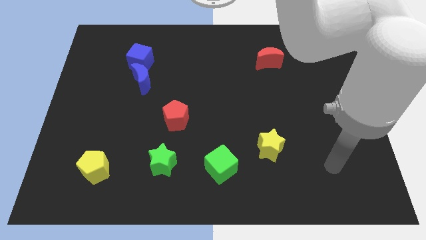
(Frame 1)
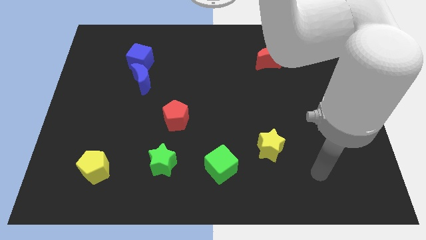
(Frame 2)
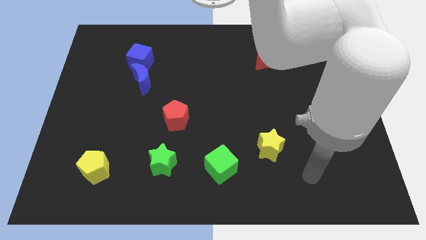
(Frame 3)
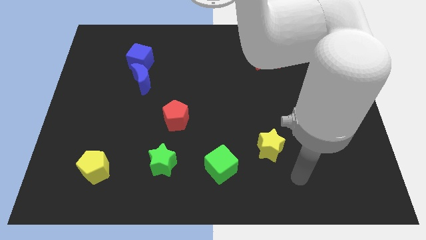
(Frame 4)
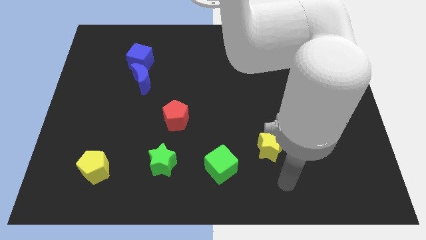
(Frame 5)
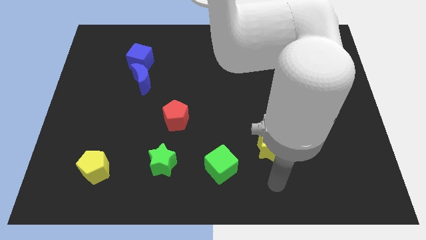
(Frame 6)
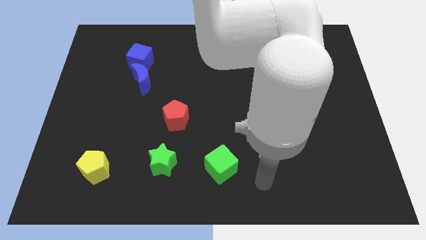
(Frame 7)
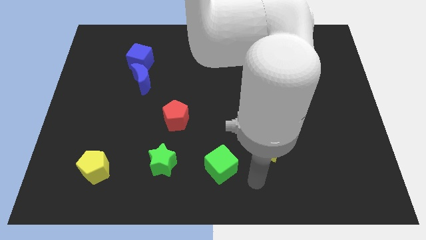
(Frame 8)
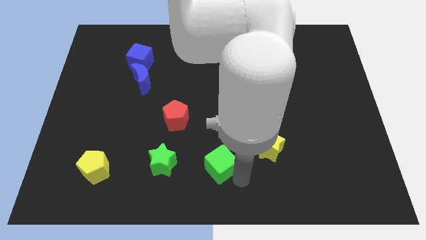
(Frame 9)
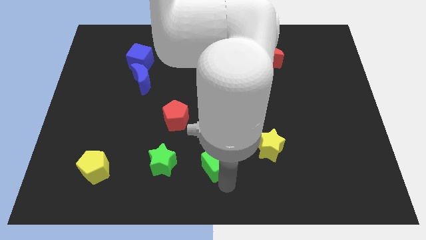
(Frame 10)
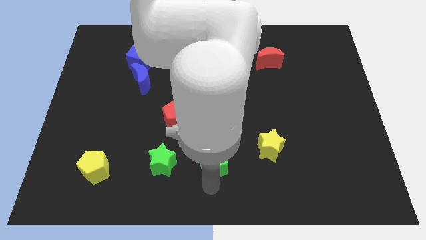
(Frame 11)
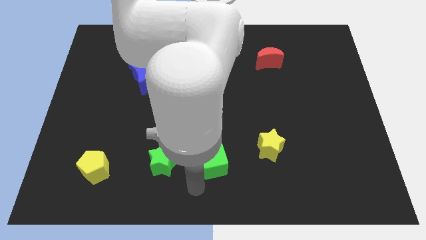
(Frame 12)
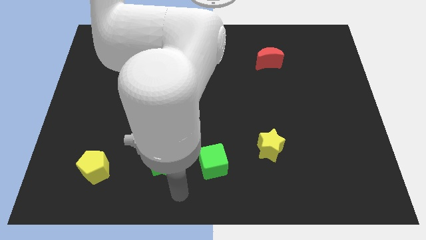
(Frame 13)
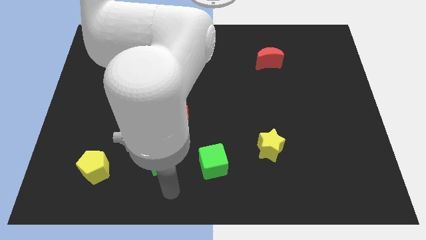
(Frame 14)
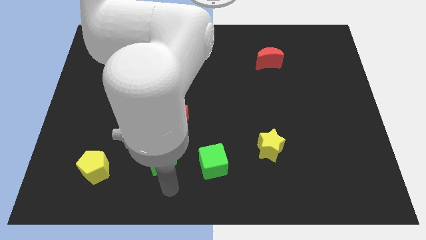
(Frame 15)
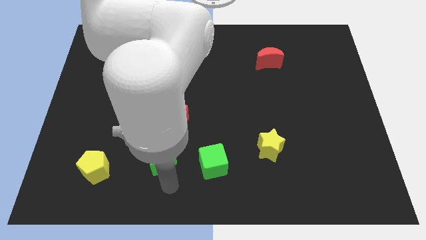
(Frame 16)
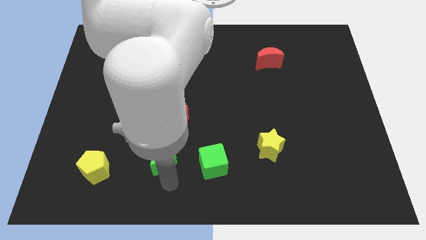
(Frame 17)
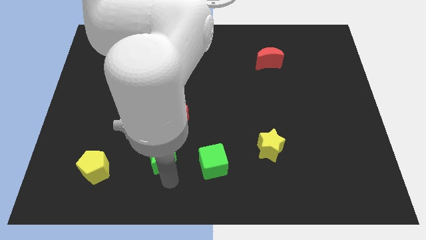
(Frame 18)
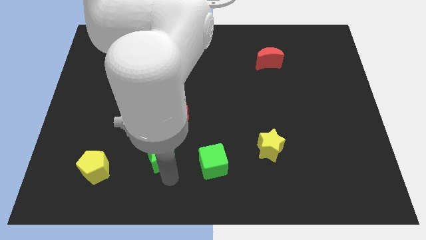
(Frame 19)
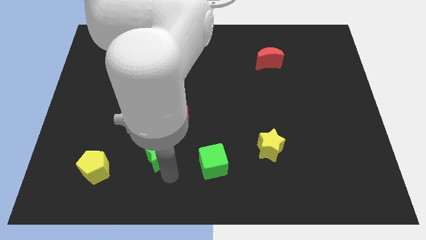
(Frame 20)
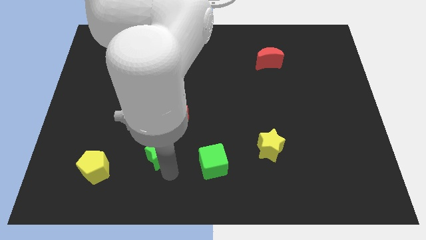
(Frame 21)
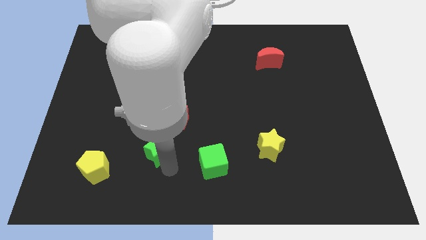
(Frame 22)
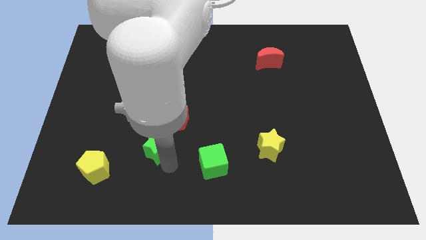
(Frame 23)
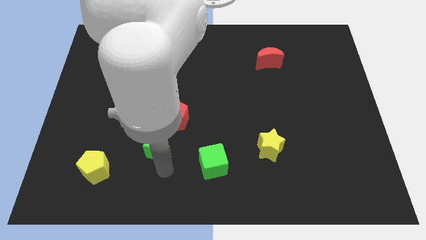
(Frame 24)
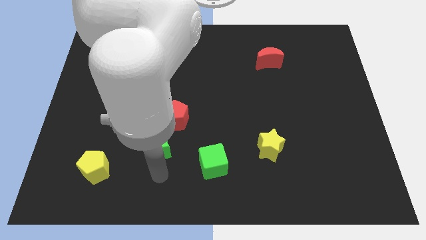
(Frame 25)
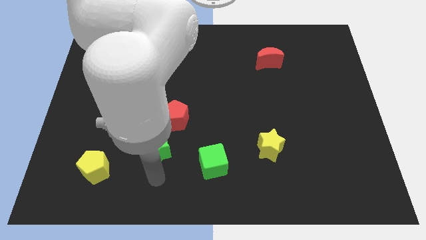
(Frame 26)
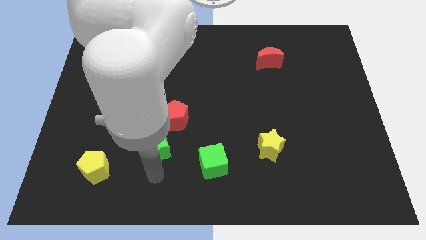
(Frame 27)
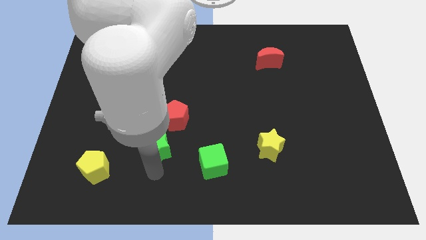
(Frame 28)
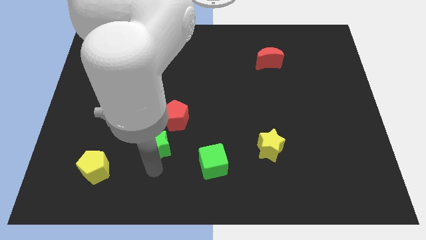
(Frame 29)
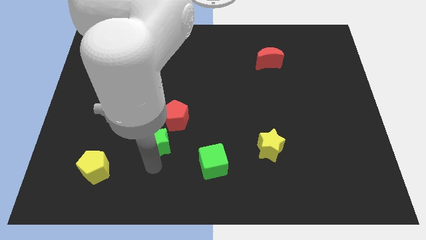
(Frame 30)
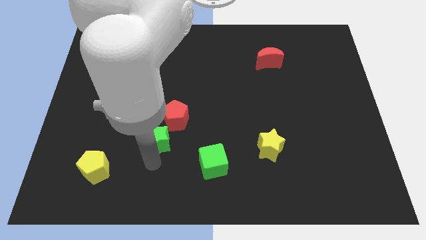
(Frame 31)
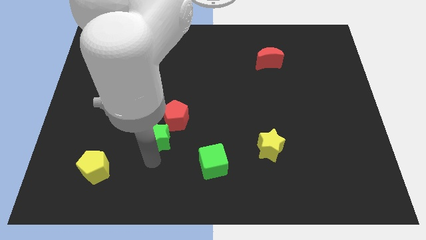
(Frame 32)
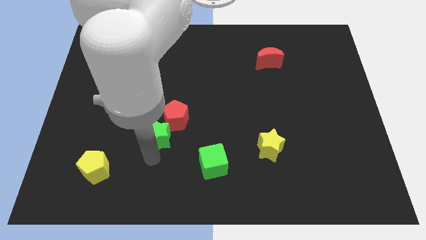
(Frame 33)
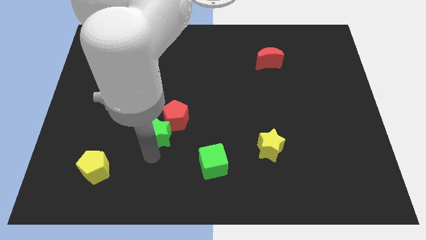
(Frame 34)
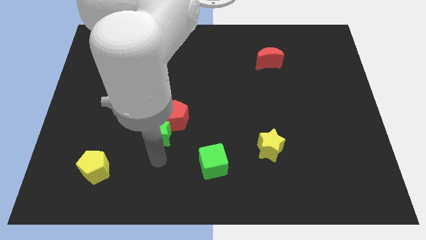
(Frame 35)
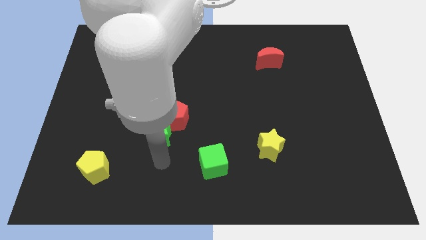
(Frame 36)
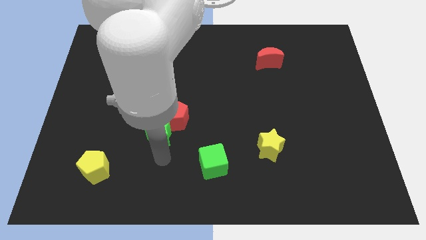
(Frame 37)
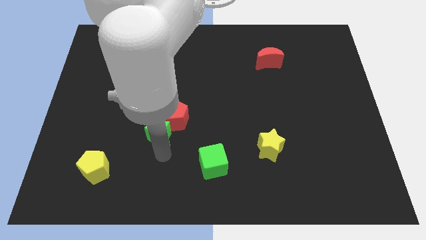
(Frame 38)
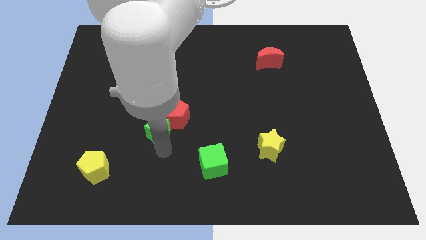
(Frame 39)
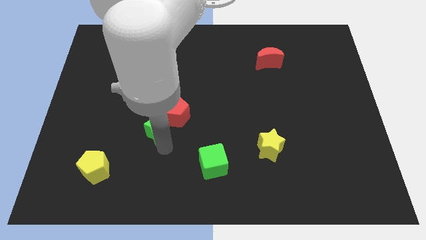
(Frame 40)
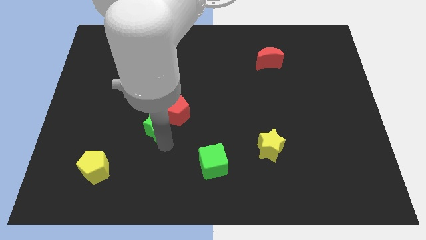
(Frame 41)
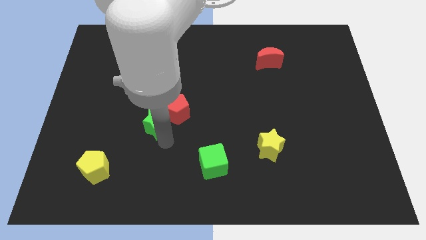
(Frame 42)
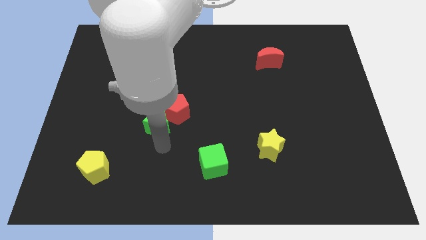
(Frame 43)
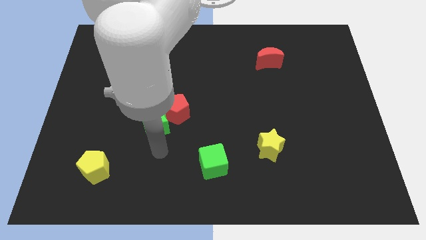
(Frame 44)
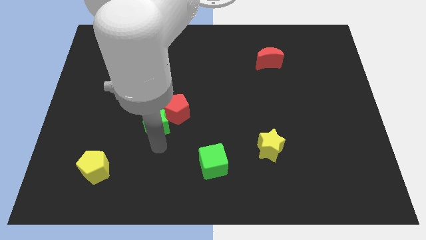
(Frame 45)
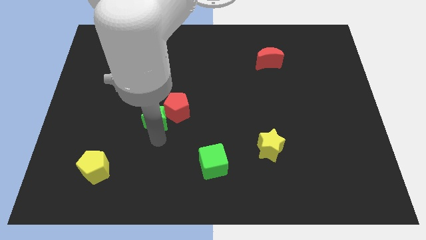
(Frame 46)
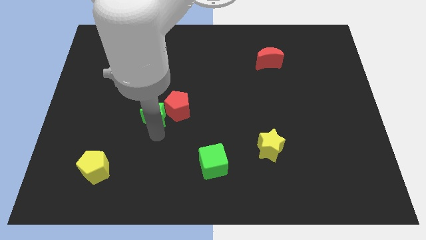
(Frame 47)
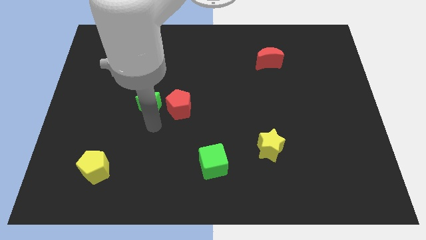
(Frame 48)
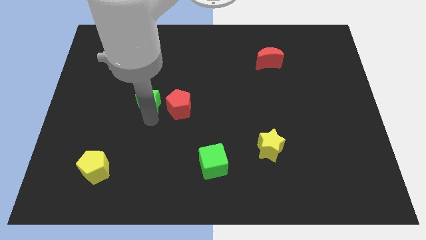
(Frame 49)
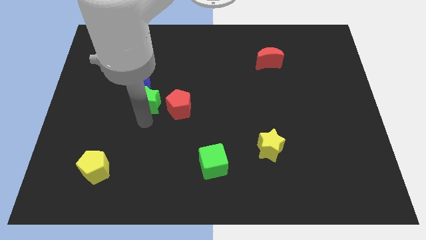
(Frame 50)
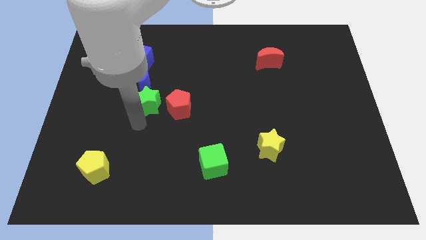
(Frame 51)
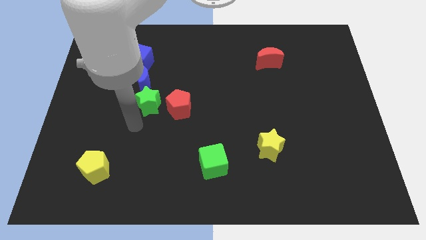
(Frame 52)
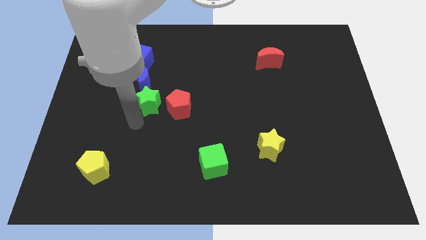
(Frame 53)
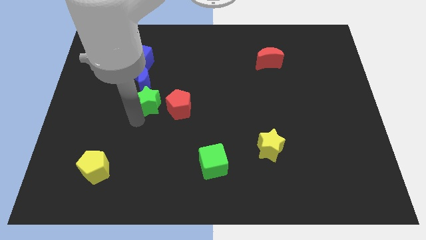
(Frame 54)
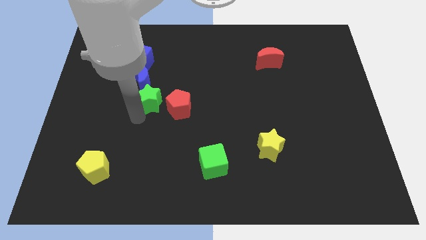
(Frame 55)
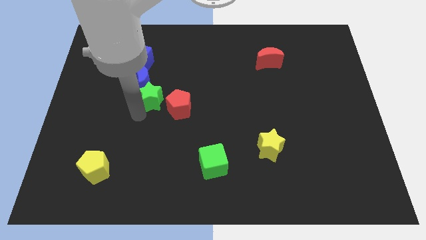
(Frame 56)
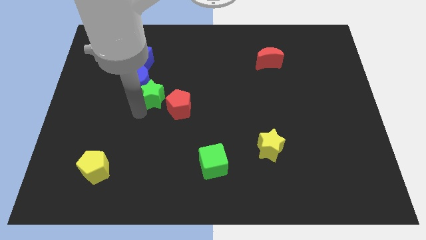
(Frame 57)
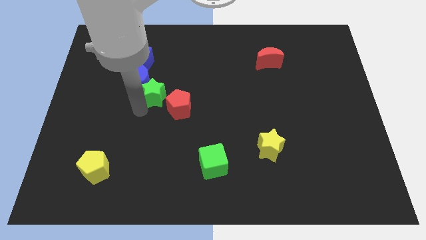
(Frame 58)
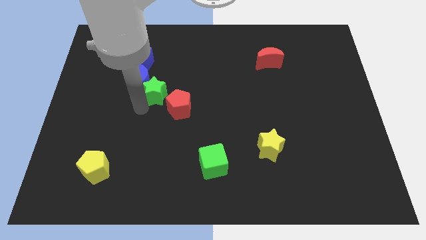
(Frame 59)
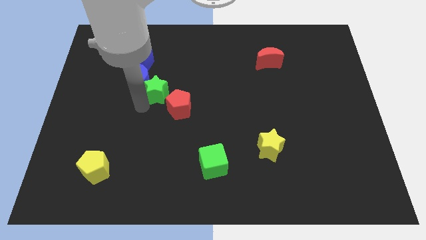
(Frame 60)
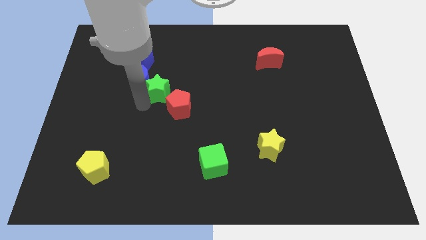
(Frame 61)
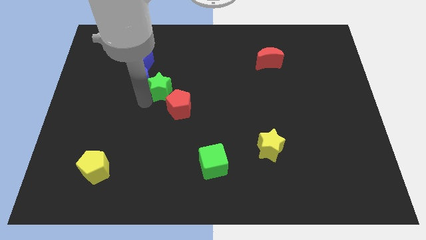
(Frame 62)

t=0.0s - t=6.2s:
push the green star upwards

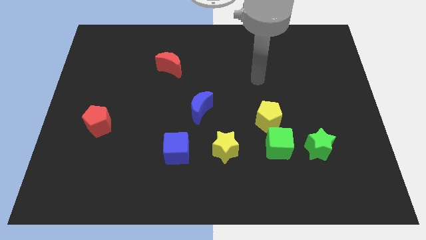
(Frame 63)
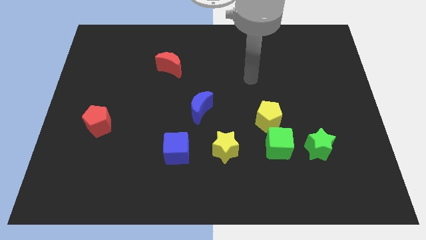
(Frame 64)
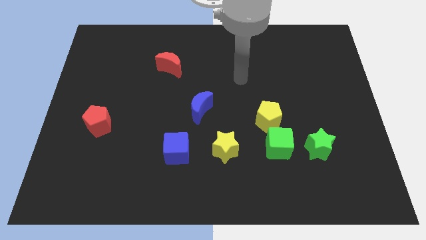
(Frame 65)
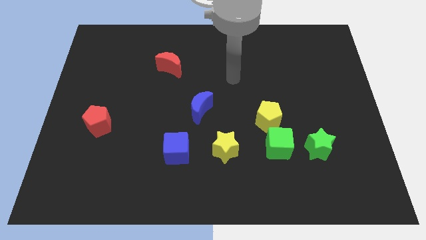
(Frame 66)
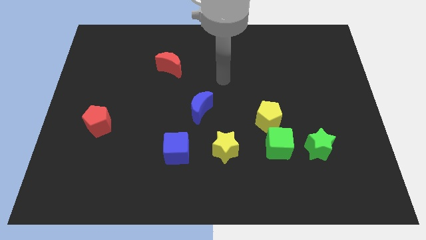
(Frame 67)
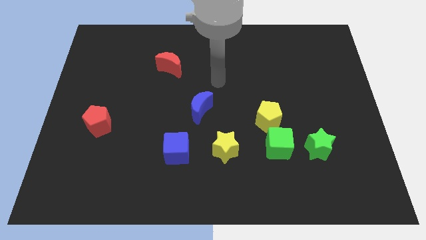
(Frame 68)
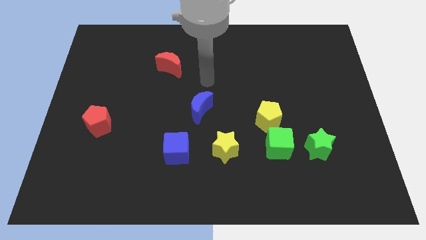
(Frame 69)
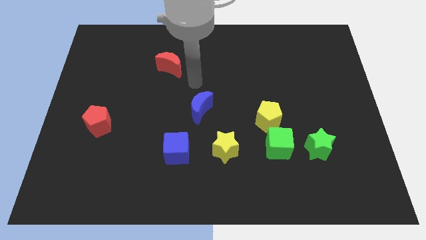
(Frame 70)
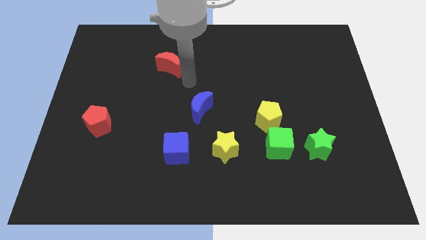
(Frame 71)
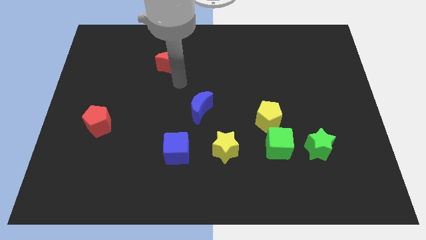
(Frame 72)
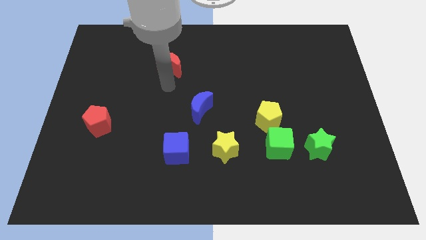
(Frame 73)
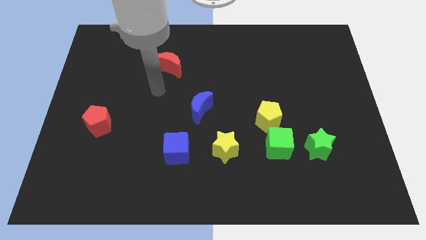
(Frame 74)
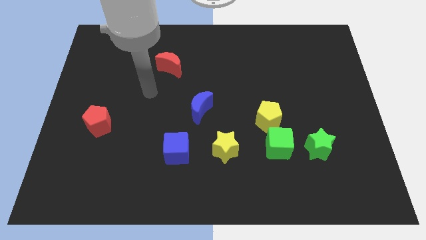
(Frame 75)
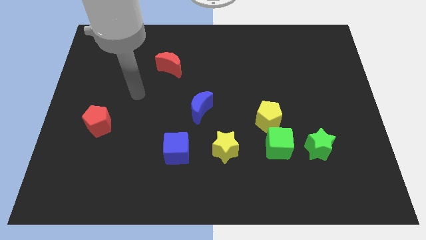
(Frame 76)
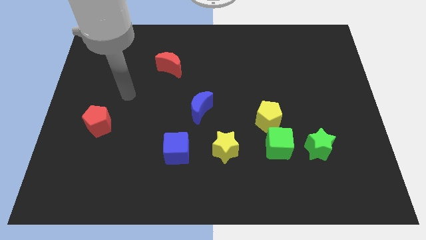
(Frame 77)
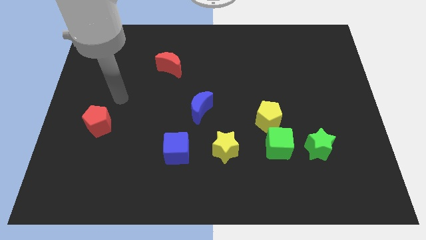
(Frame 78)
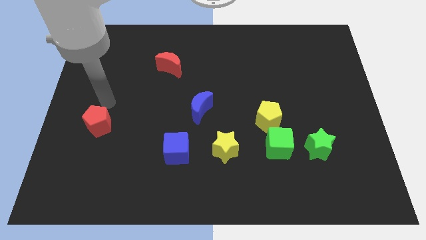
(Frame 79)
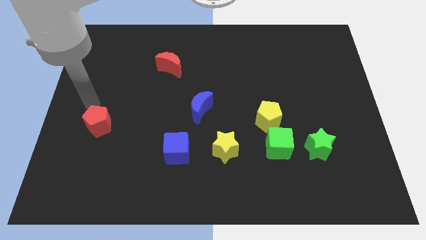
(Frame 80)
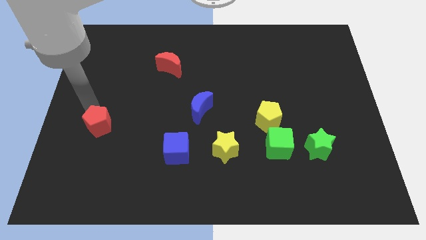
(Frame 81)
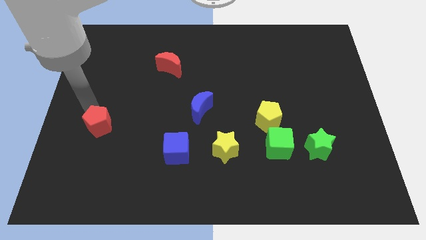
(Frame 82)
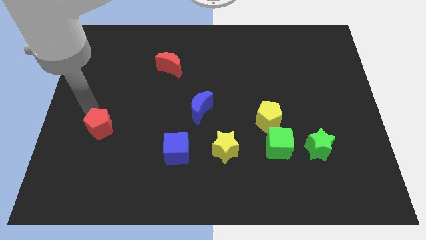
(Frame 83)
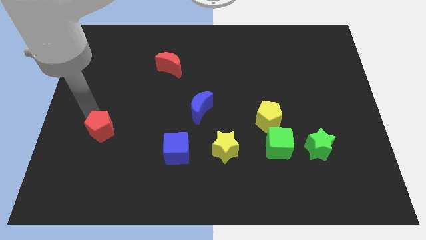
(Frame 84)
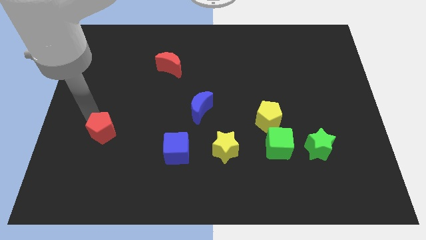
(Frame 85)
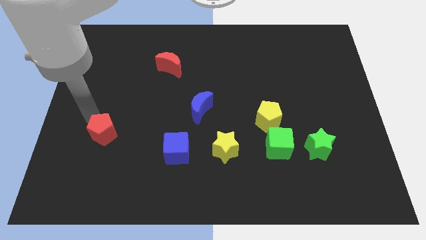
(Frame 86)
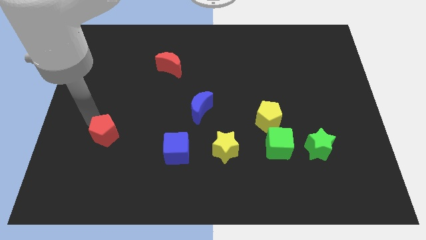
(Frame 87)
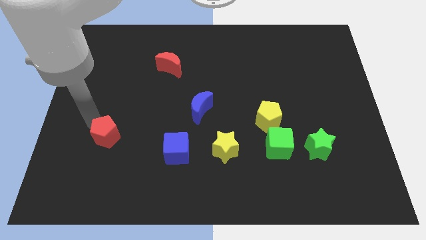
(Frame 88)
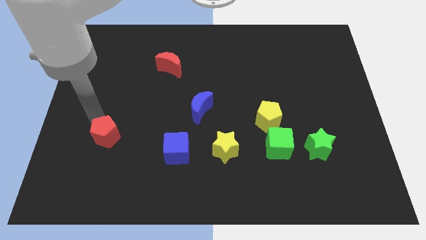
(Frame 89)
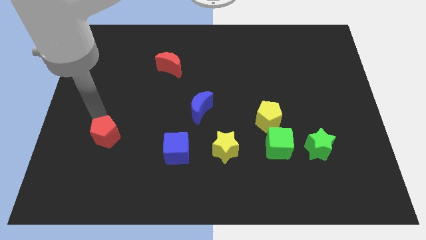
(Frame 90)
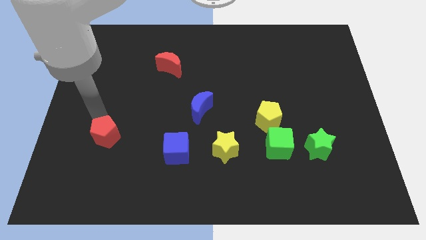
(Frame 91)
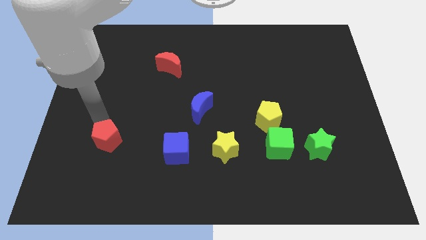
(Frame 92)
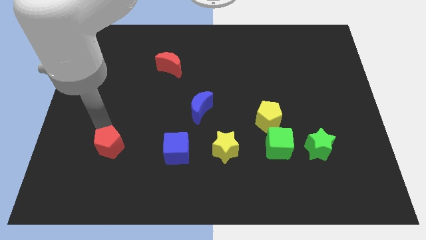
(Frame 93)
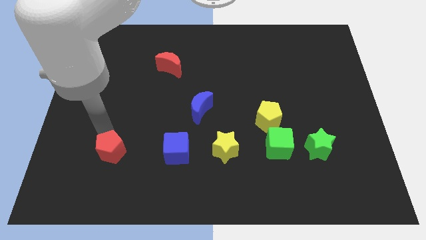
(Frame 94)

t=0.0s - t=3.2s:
slightly slide the red pentagon down and right diagonally
